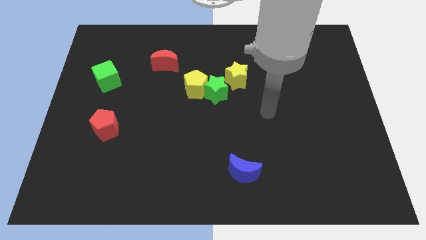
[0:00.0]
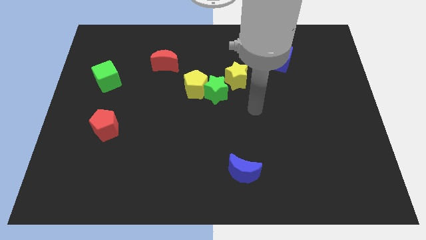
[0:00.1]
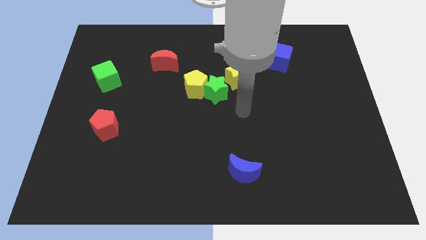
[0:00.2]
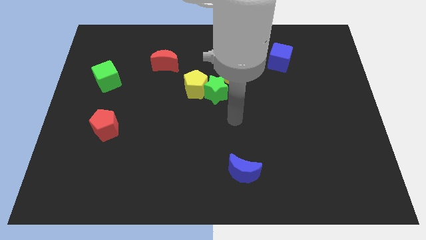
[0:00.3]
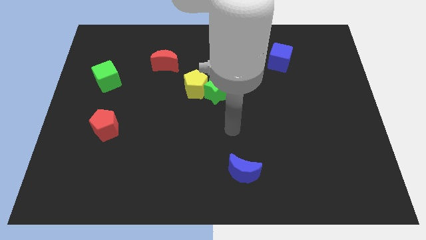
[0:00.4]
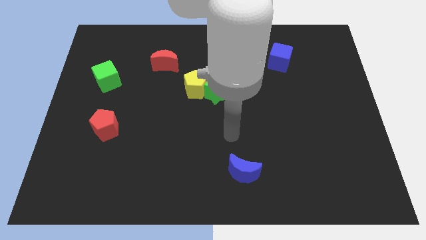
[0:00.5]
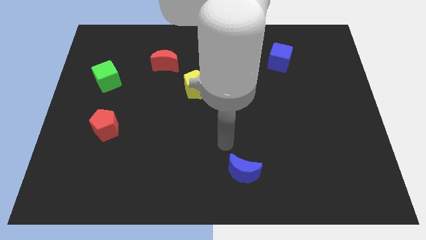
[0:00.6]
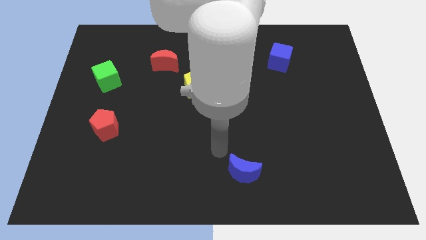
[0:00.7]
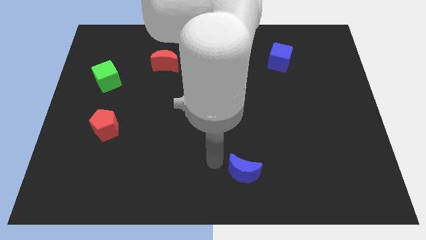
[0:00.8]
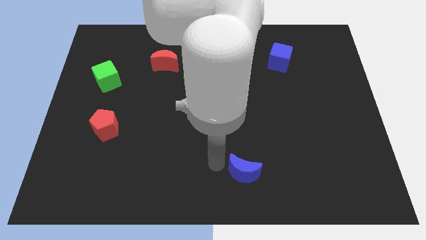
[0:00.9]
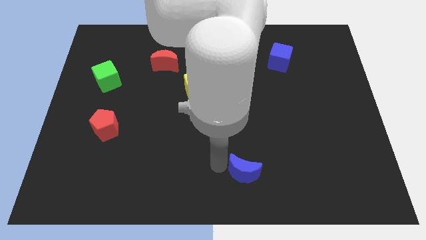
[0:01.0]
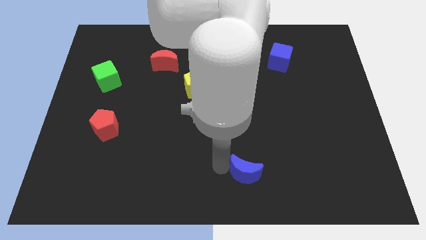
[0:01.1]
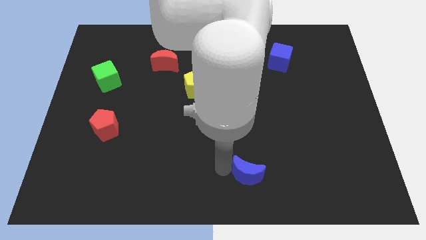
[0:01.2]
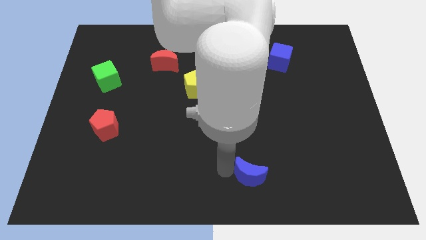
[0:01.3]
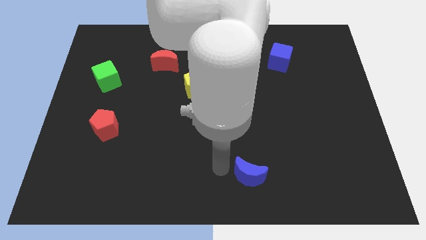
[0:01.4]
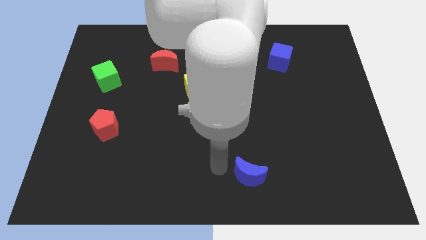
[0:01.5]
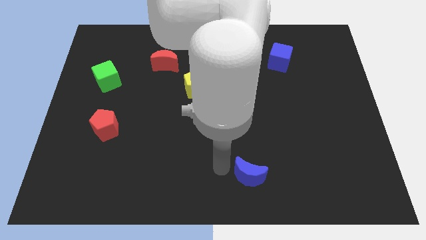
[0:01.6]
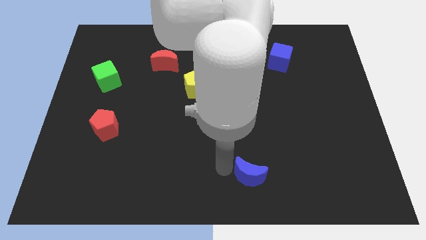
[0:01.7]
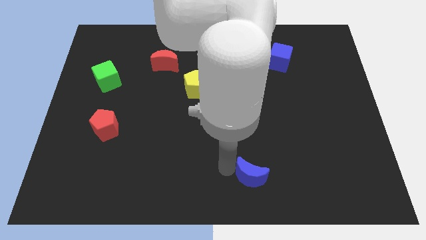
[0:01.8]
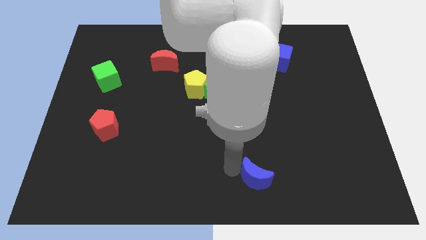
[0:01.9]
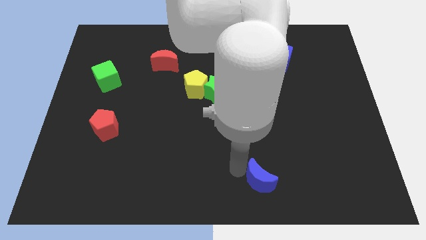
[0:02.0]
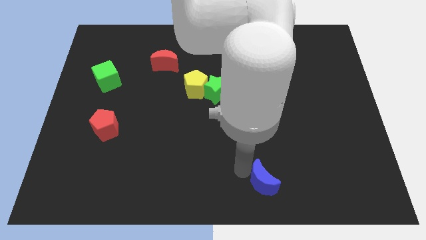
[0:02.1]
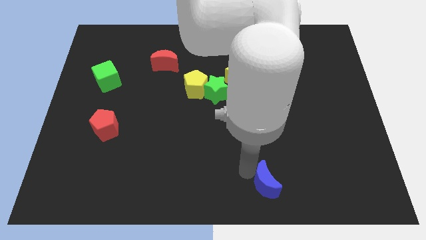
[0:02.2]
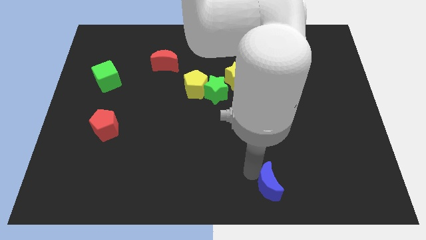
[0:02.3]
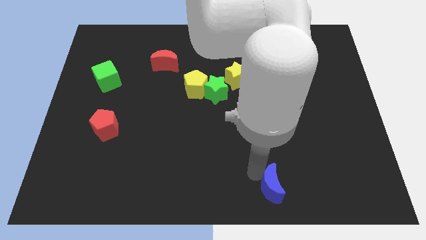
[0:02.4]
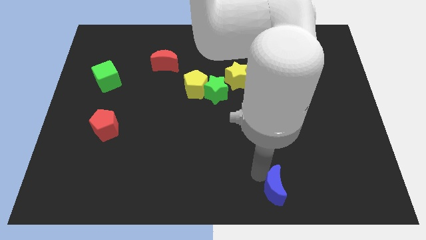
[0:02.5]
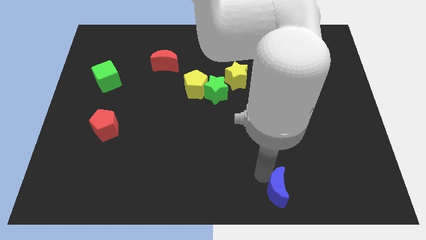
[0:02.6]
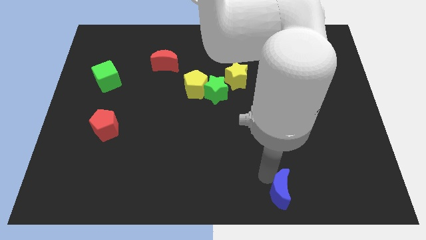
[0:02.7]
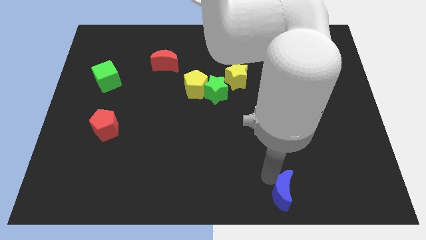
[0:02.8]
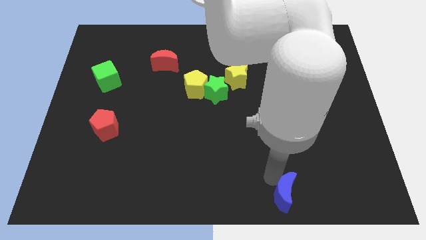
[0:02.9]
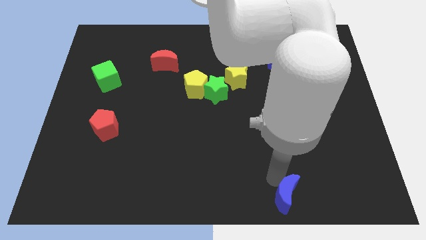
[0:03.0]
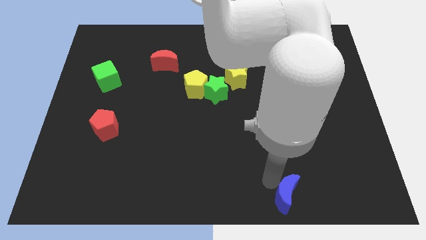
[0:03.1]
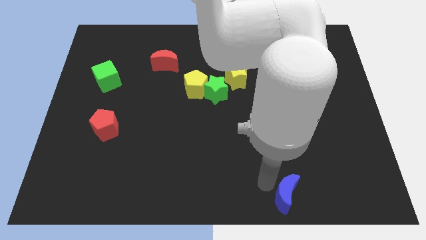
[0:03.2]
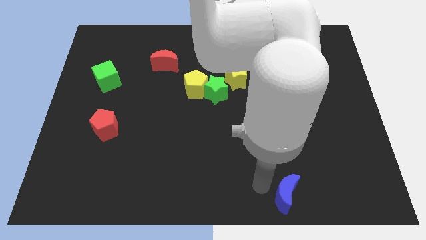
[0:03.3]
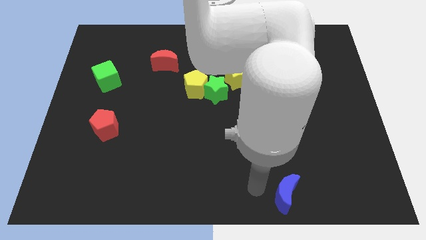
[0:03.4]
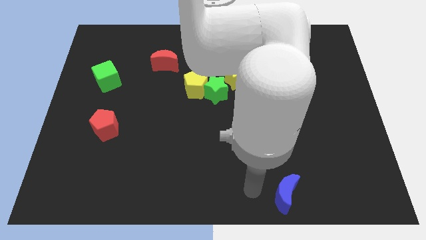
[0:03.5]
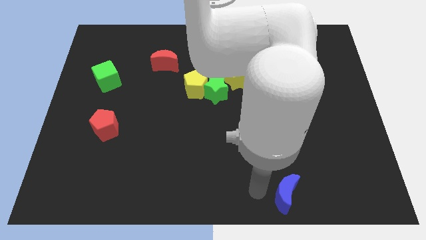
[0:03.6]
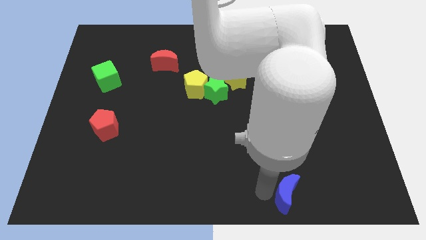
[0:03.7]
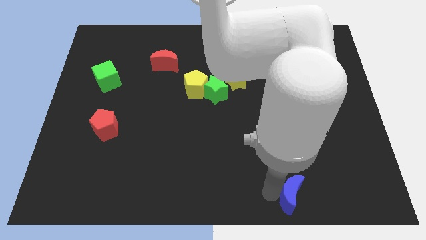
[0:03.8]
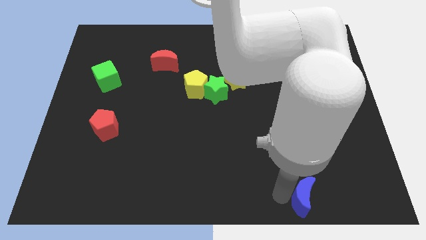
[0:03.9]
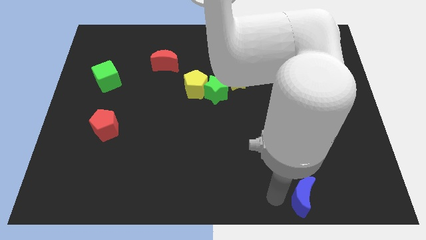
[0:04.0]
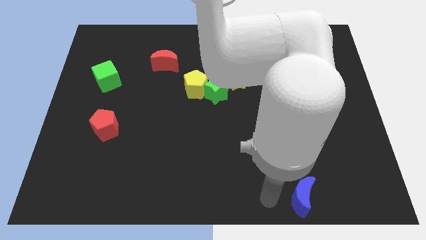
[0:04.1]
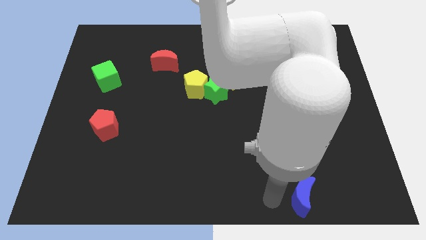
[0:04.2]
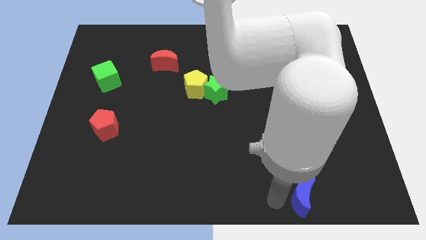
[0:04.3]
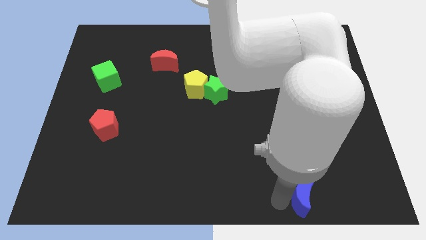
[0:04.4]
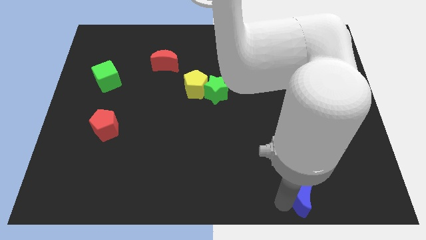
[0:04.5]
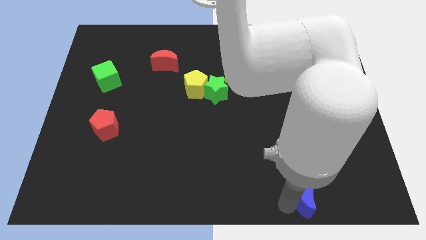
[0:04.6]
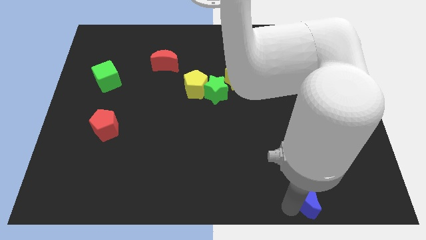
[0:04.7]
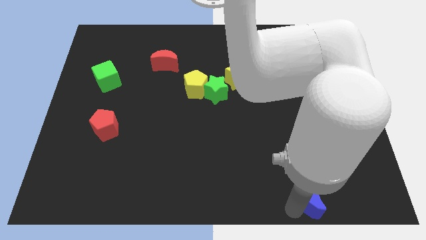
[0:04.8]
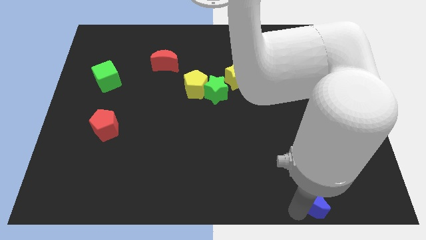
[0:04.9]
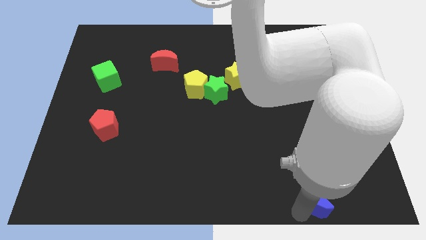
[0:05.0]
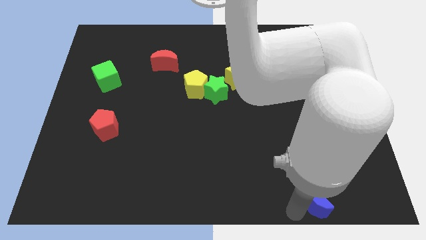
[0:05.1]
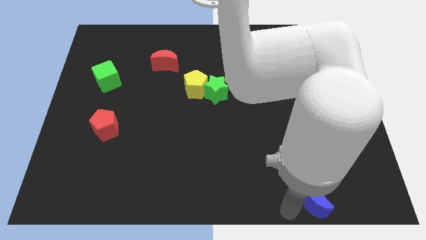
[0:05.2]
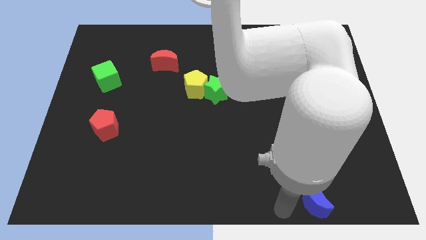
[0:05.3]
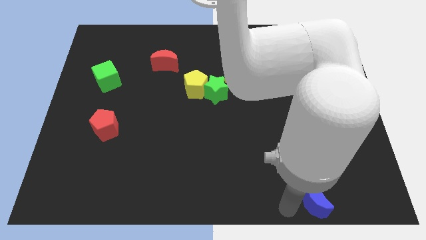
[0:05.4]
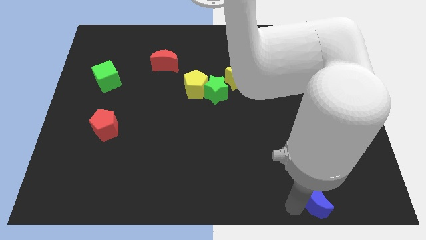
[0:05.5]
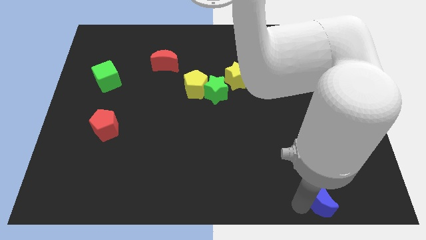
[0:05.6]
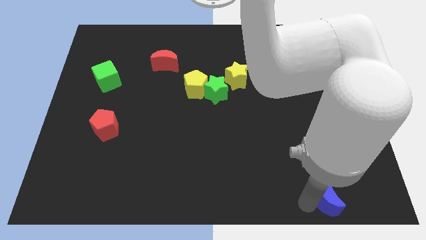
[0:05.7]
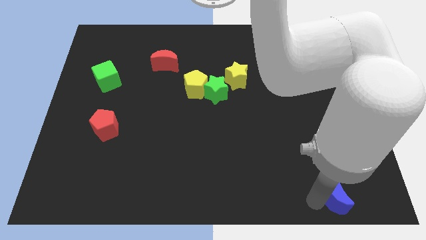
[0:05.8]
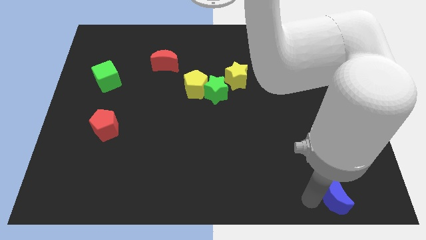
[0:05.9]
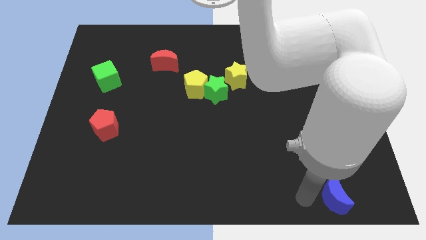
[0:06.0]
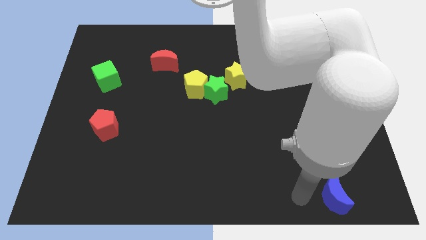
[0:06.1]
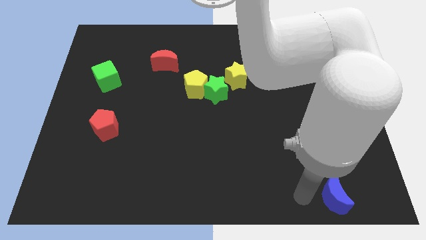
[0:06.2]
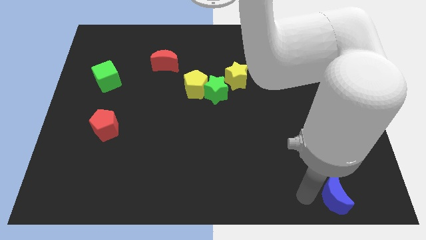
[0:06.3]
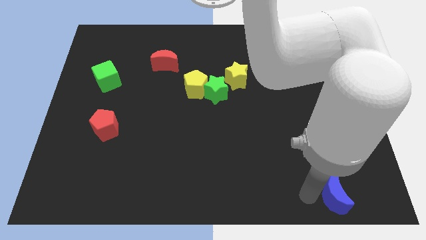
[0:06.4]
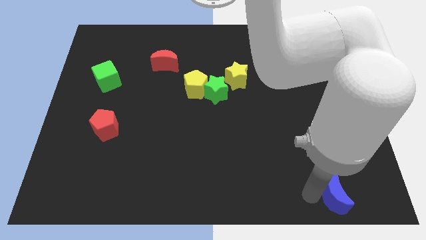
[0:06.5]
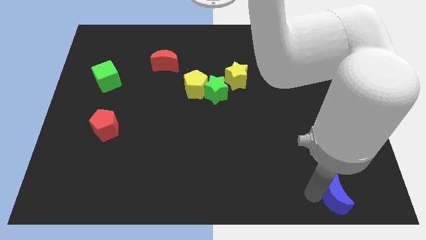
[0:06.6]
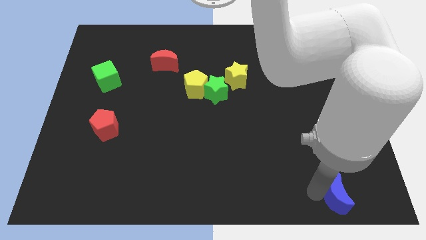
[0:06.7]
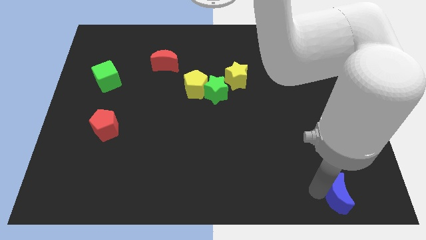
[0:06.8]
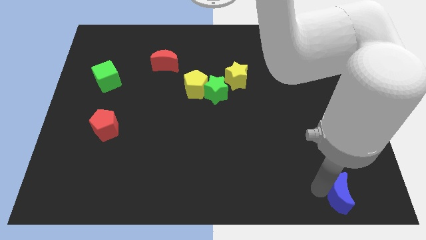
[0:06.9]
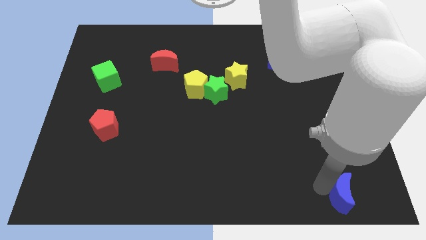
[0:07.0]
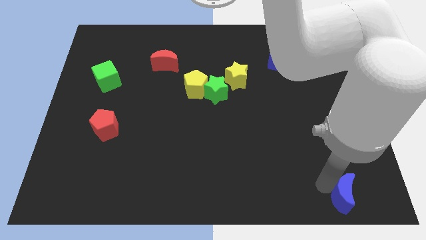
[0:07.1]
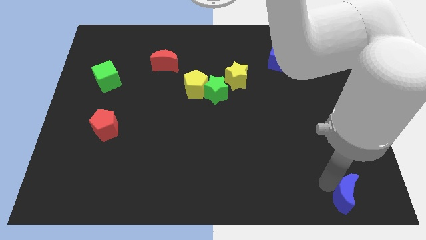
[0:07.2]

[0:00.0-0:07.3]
move the blue moon to the bottom right of the board
